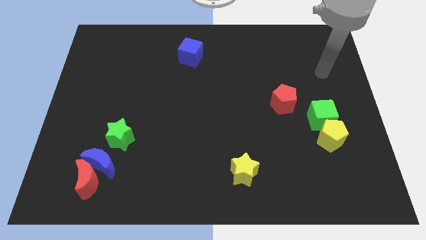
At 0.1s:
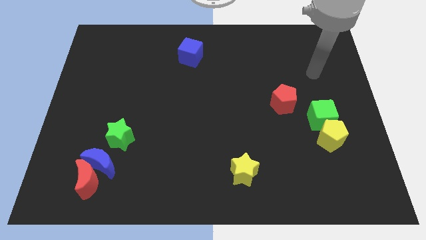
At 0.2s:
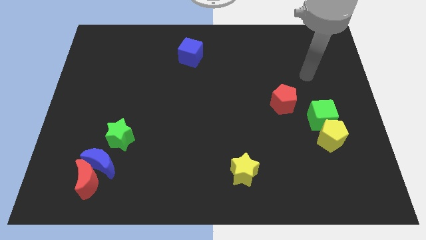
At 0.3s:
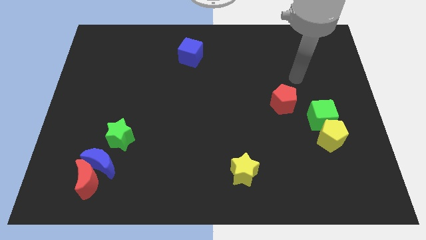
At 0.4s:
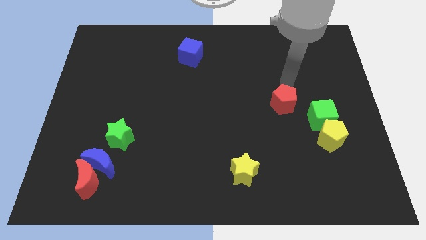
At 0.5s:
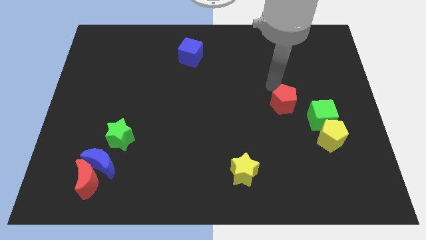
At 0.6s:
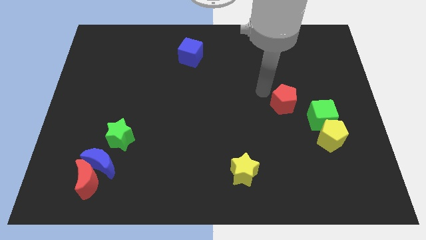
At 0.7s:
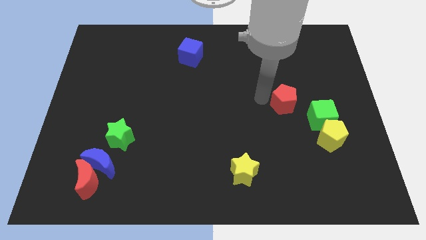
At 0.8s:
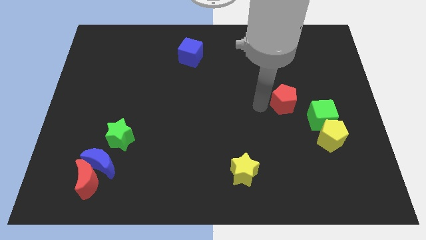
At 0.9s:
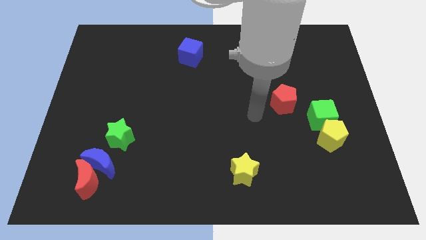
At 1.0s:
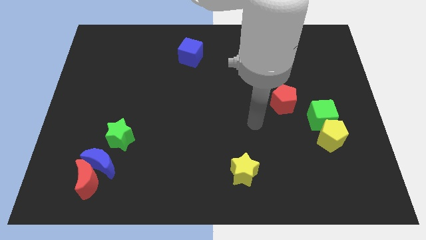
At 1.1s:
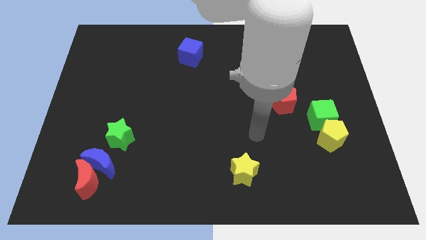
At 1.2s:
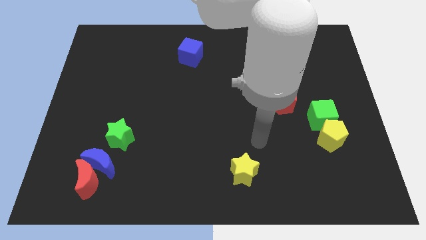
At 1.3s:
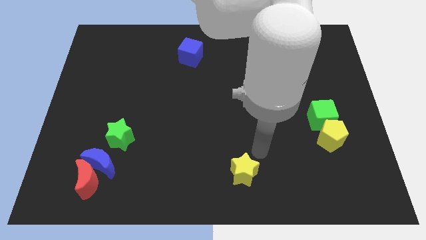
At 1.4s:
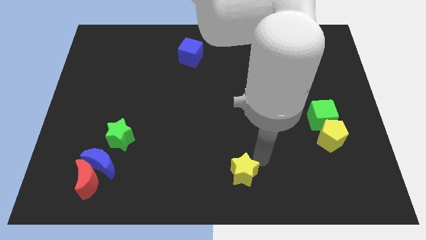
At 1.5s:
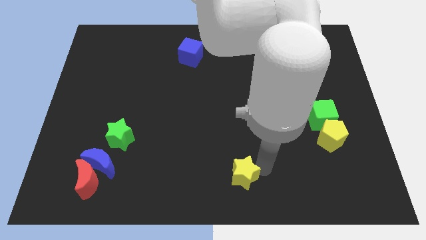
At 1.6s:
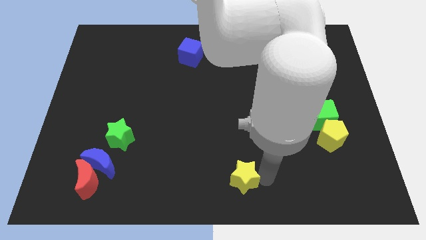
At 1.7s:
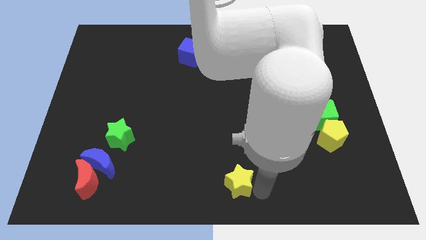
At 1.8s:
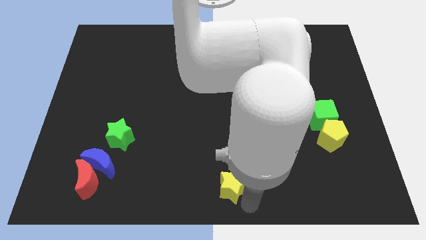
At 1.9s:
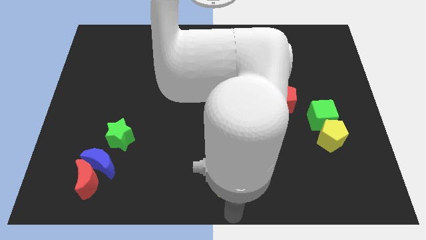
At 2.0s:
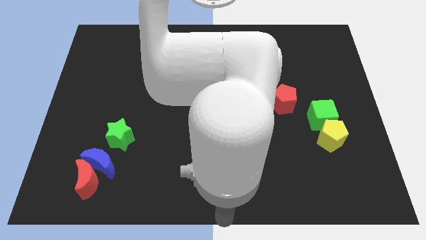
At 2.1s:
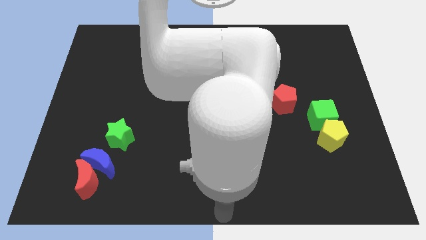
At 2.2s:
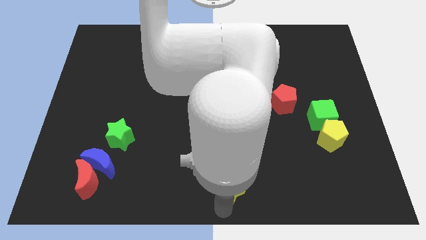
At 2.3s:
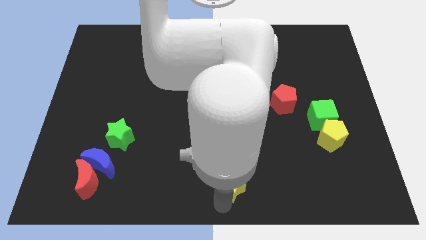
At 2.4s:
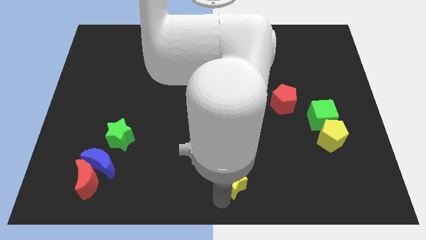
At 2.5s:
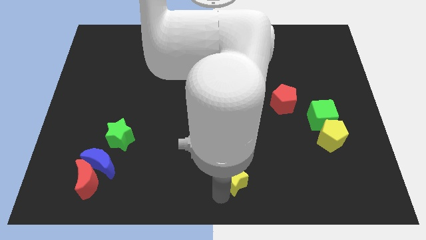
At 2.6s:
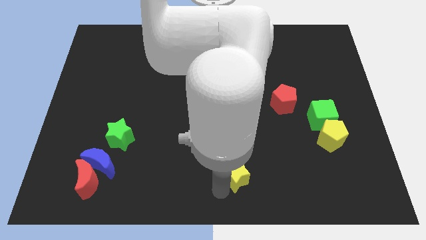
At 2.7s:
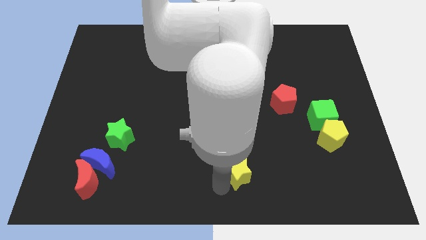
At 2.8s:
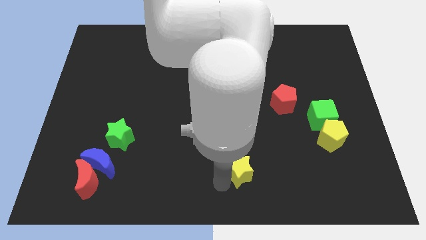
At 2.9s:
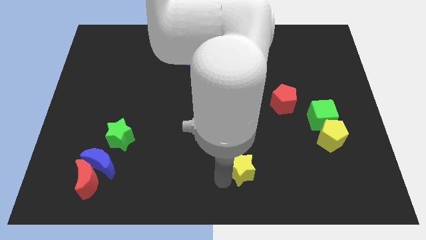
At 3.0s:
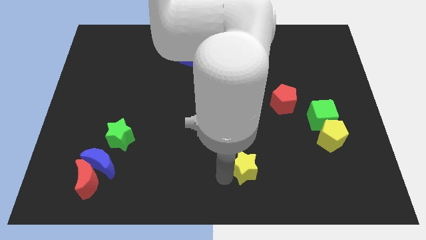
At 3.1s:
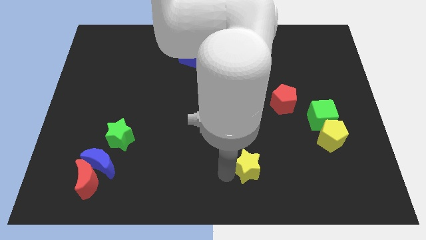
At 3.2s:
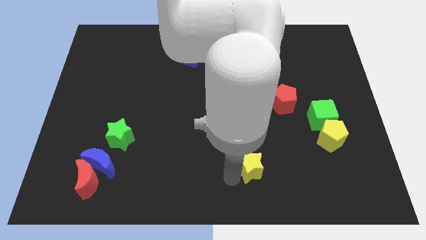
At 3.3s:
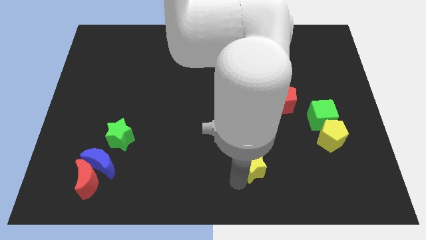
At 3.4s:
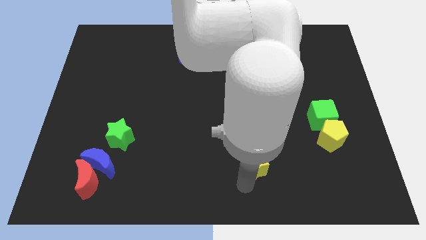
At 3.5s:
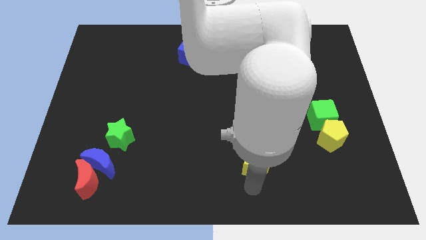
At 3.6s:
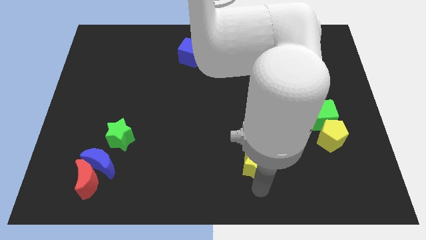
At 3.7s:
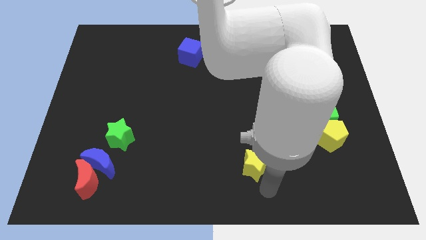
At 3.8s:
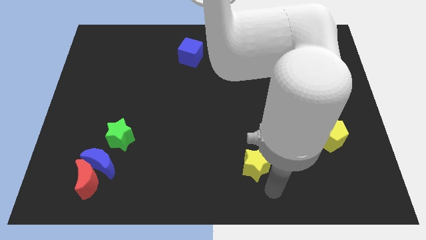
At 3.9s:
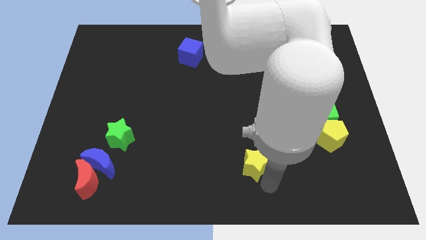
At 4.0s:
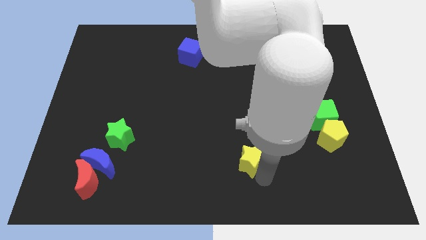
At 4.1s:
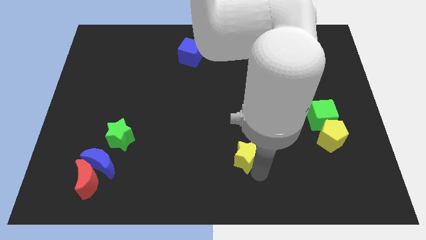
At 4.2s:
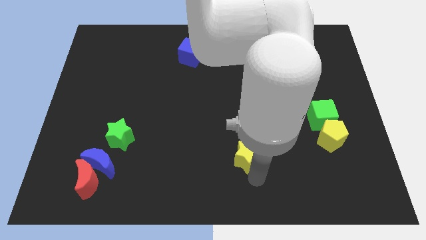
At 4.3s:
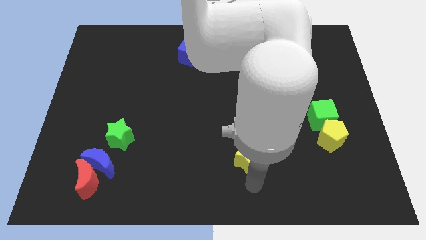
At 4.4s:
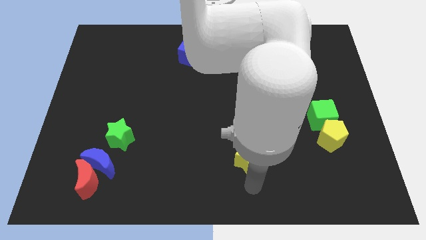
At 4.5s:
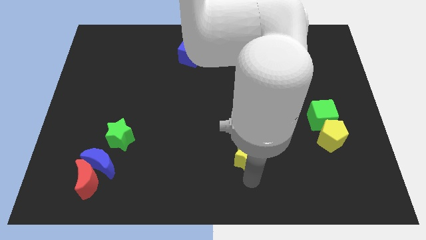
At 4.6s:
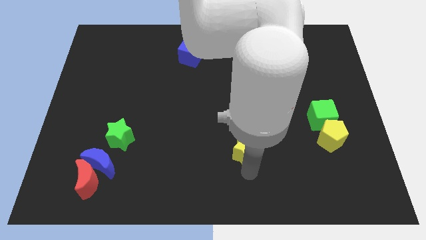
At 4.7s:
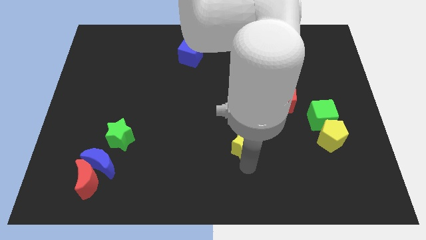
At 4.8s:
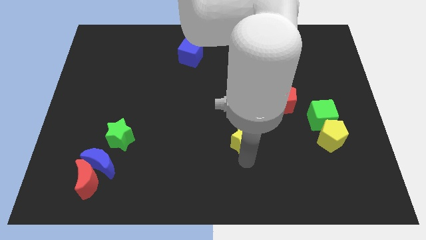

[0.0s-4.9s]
push the yellow star slightly upwards

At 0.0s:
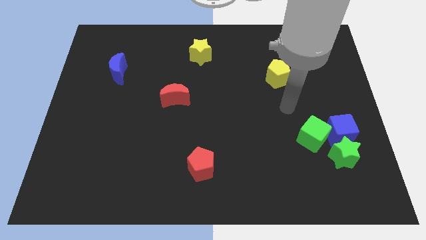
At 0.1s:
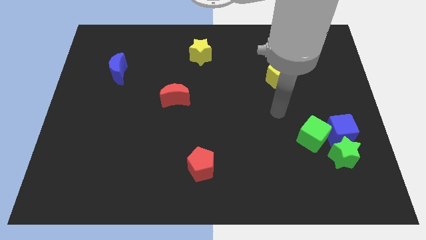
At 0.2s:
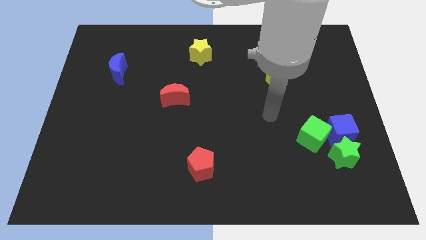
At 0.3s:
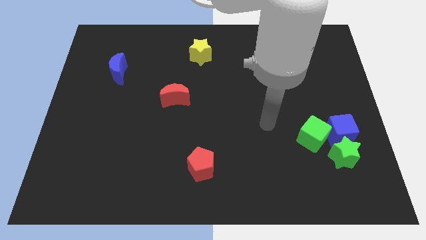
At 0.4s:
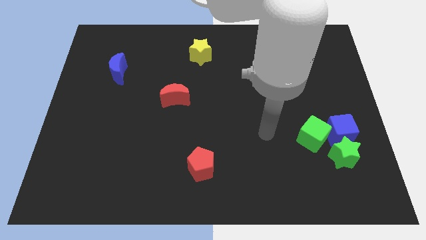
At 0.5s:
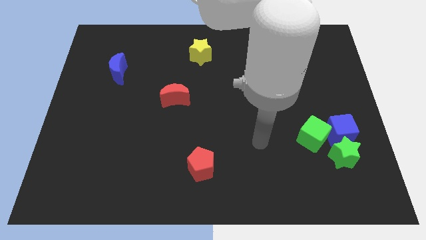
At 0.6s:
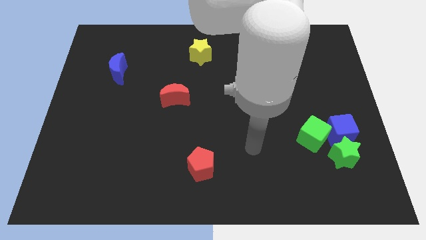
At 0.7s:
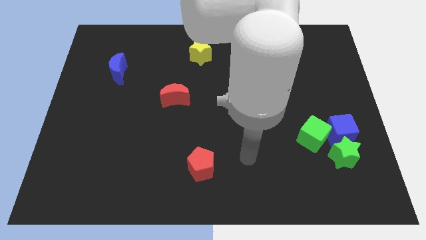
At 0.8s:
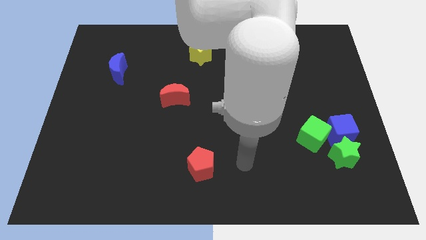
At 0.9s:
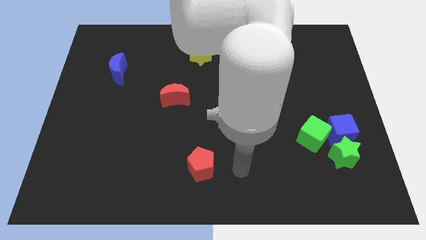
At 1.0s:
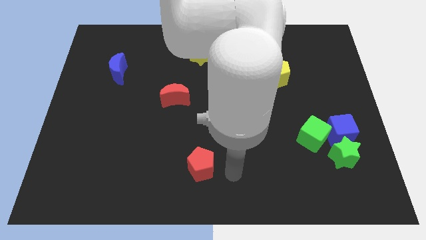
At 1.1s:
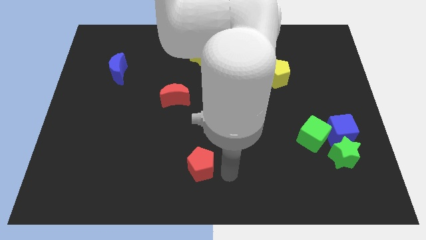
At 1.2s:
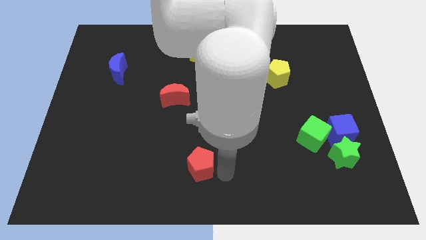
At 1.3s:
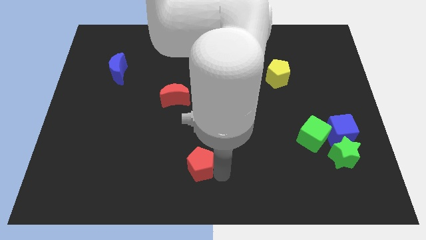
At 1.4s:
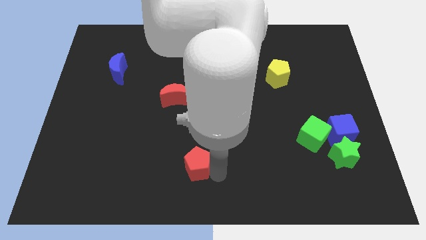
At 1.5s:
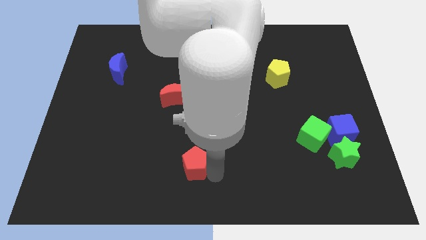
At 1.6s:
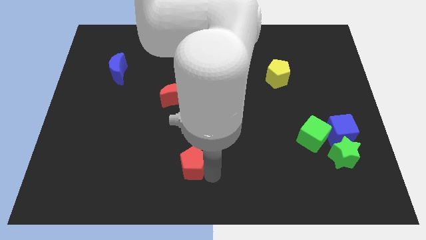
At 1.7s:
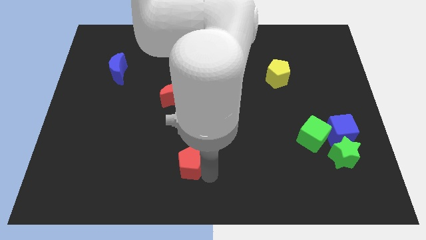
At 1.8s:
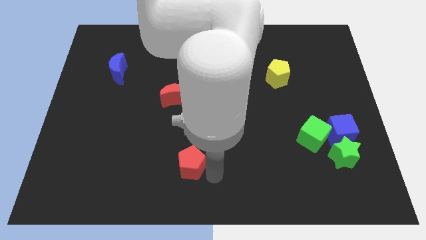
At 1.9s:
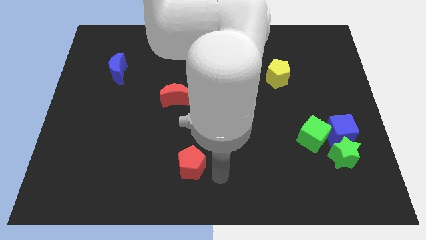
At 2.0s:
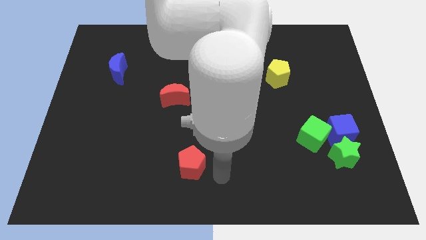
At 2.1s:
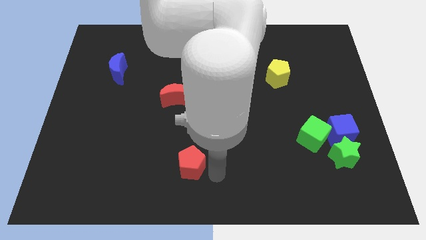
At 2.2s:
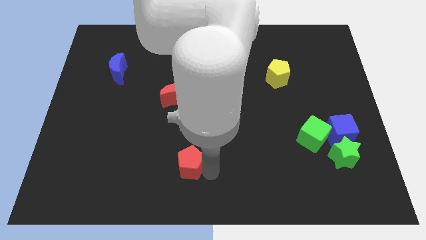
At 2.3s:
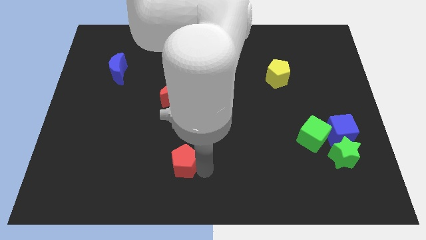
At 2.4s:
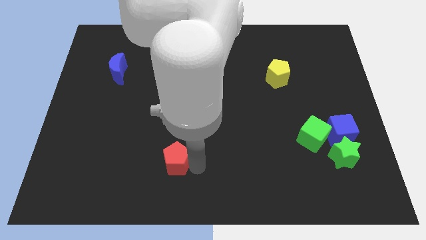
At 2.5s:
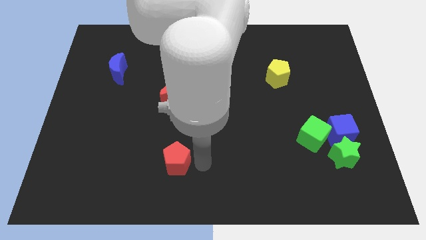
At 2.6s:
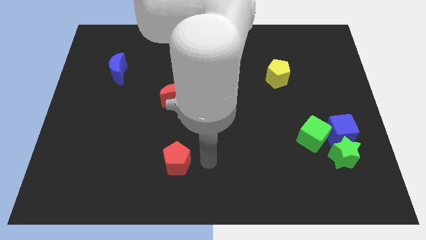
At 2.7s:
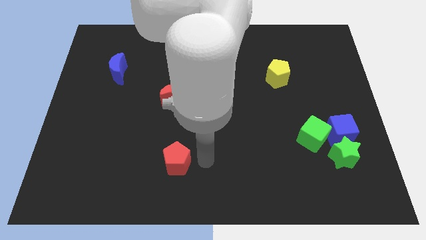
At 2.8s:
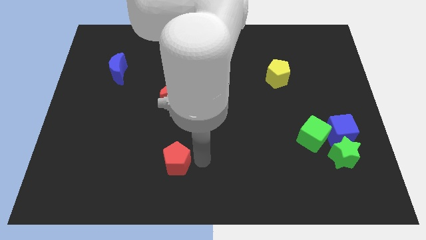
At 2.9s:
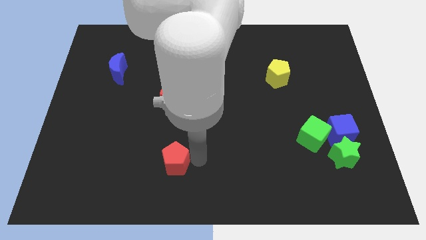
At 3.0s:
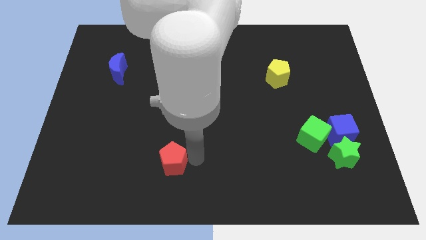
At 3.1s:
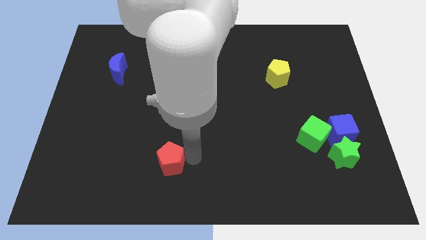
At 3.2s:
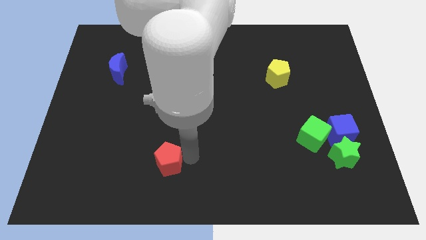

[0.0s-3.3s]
push the red pentagon a little left

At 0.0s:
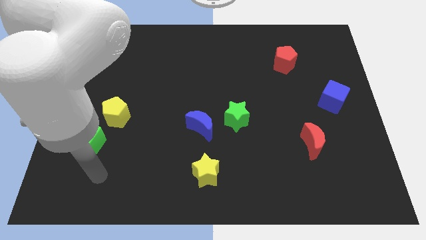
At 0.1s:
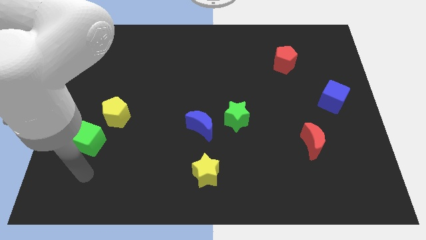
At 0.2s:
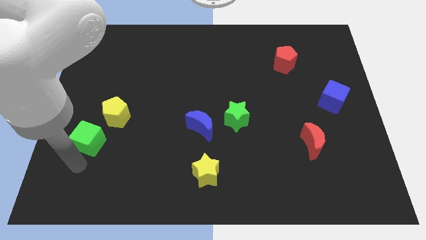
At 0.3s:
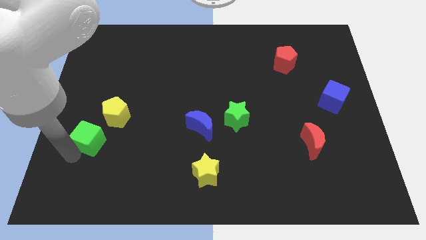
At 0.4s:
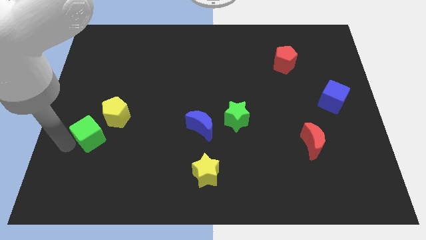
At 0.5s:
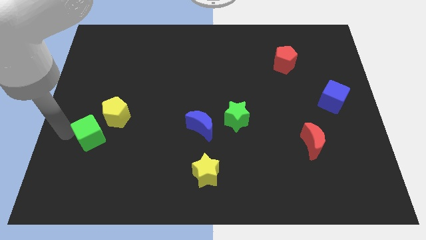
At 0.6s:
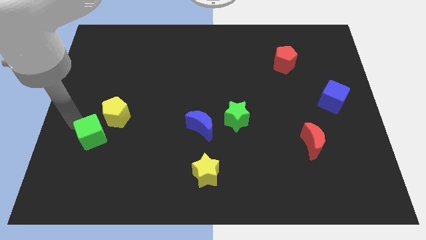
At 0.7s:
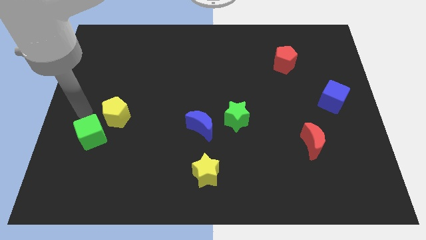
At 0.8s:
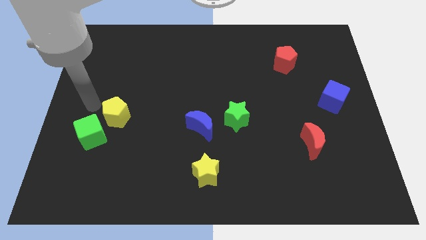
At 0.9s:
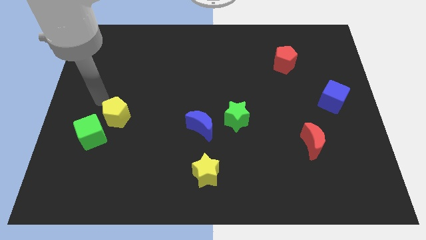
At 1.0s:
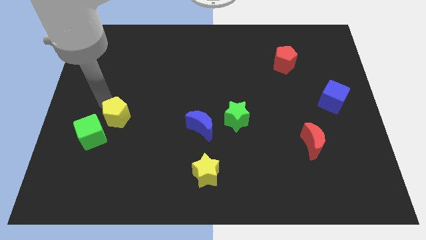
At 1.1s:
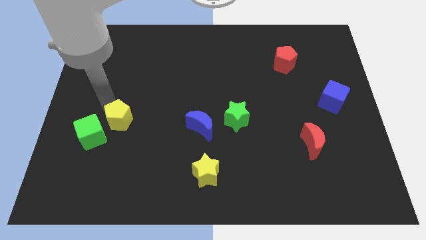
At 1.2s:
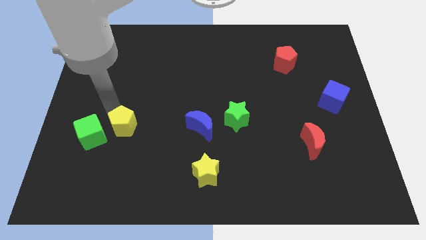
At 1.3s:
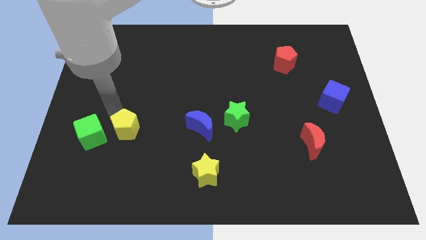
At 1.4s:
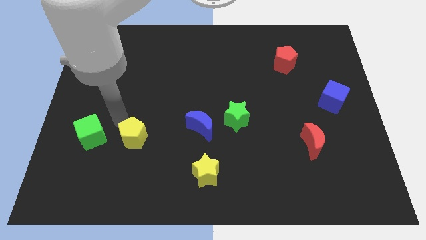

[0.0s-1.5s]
move the yellow pentagon a little bit diagonally down and to the right
